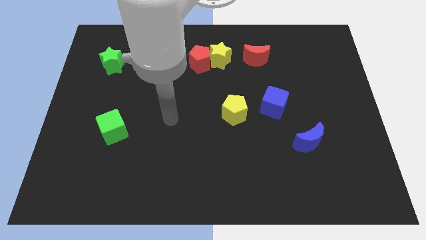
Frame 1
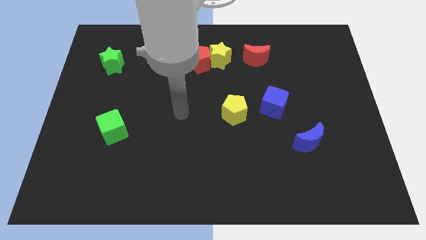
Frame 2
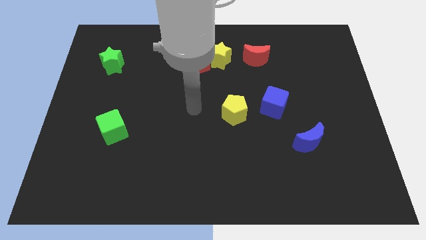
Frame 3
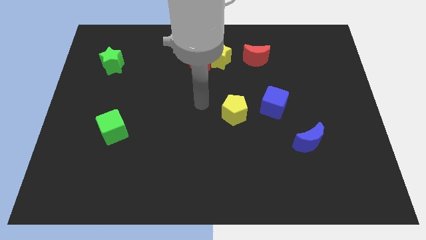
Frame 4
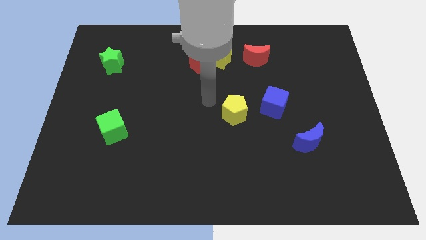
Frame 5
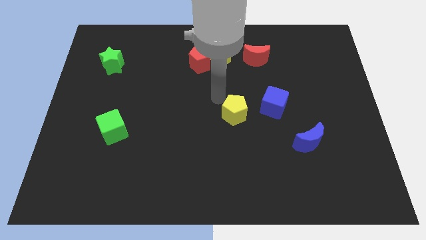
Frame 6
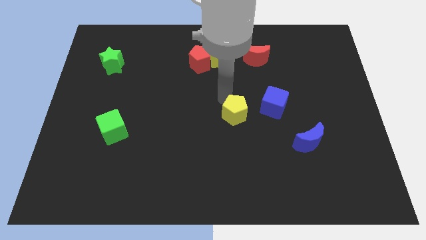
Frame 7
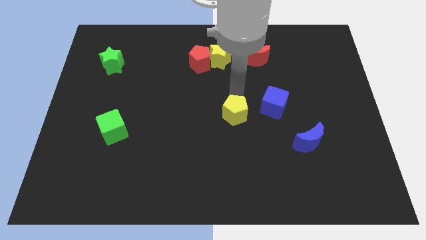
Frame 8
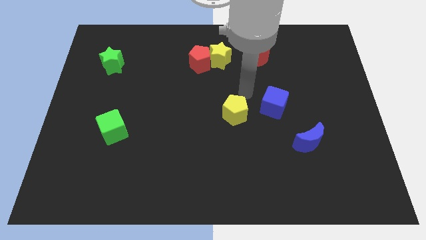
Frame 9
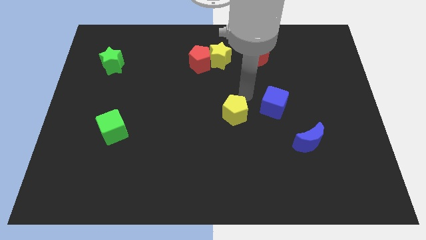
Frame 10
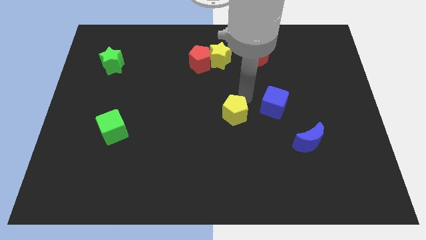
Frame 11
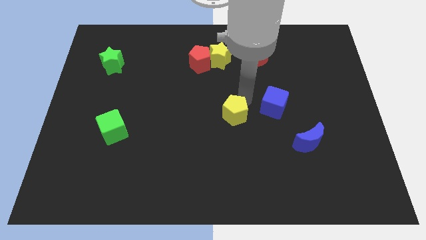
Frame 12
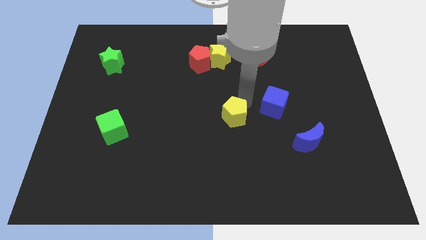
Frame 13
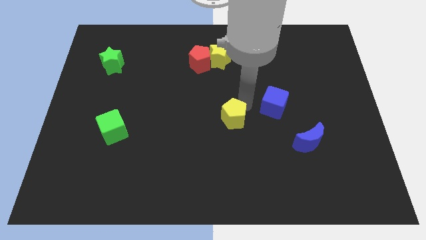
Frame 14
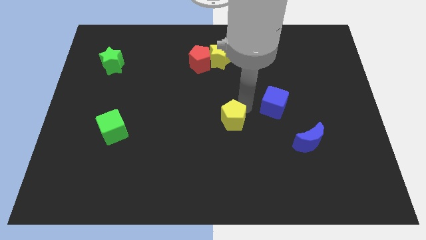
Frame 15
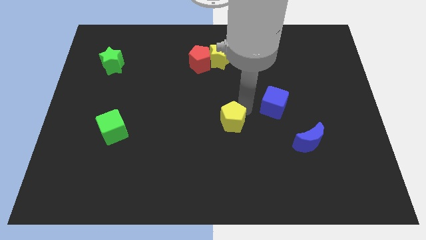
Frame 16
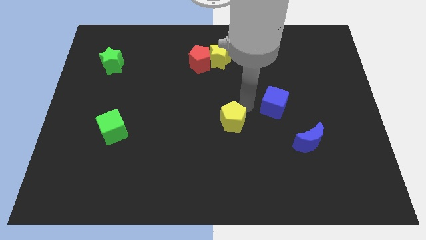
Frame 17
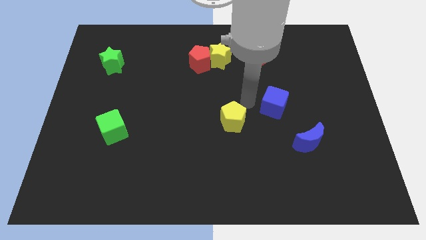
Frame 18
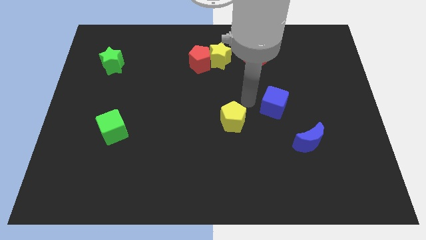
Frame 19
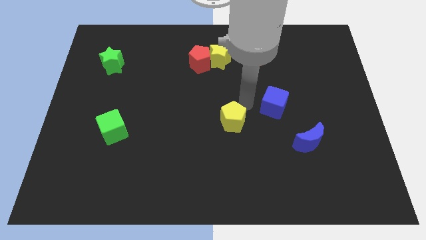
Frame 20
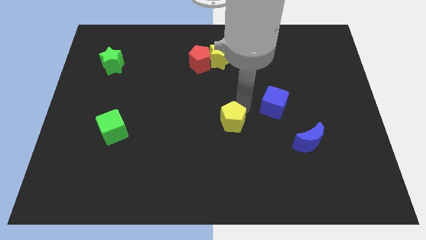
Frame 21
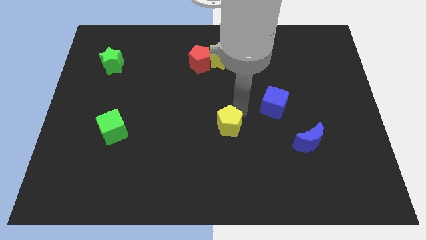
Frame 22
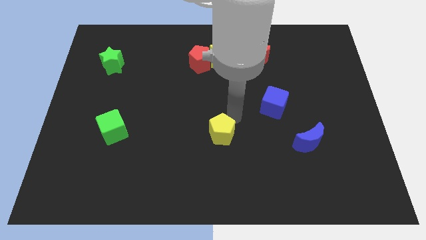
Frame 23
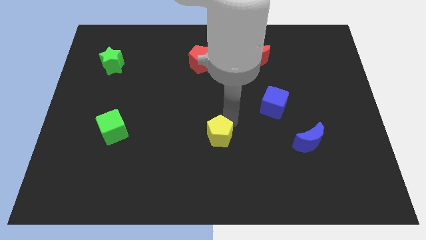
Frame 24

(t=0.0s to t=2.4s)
slightly move the yellow pentagon down and left

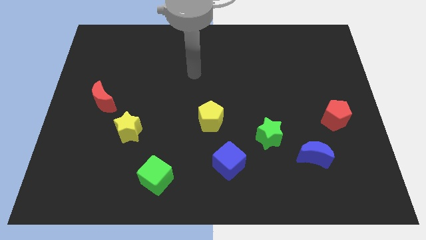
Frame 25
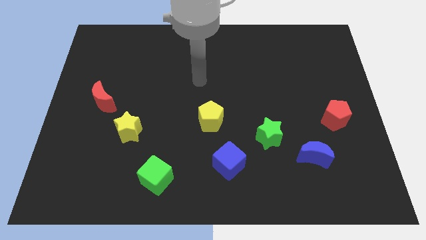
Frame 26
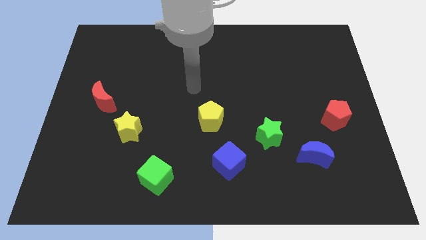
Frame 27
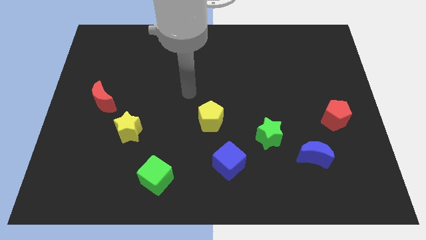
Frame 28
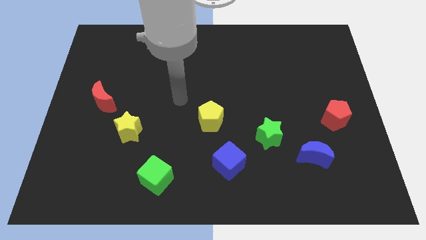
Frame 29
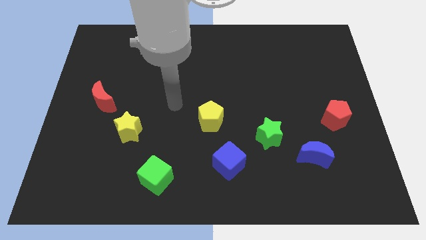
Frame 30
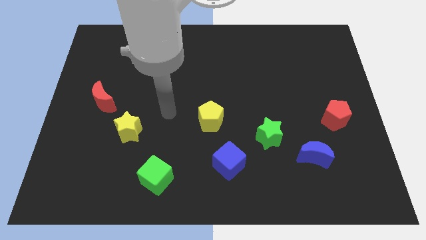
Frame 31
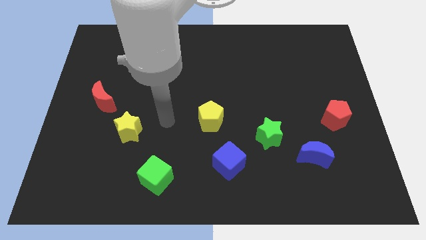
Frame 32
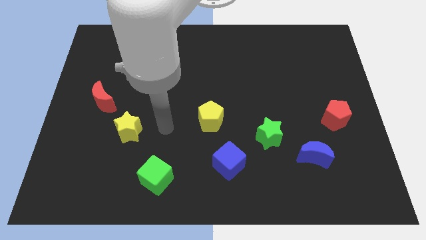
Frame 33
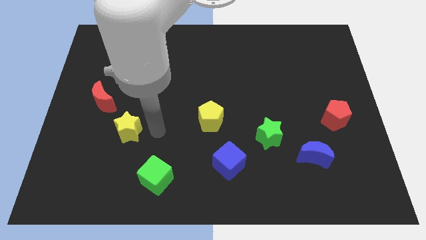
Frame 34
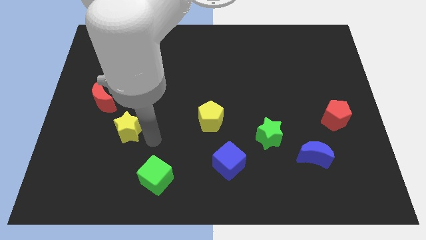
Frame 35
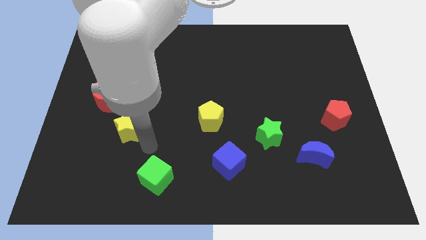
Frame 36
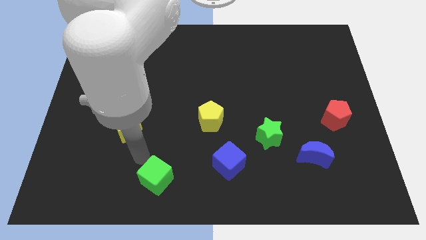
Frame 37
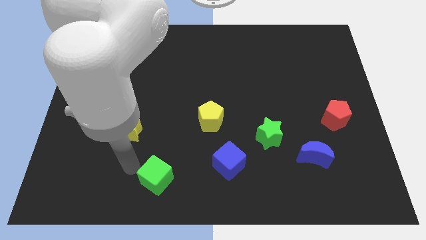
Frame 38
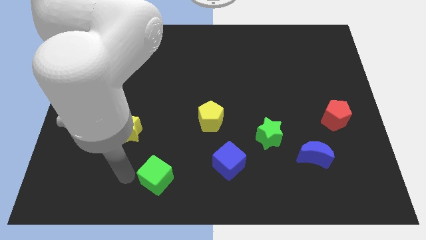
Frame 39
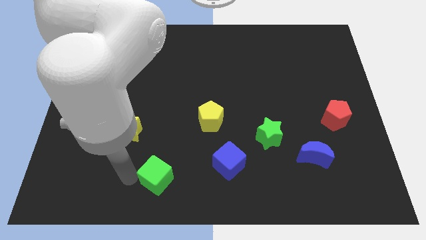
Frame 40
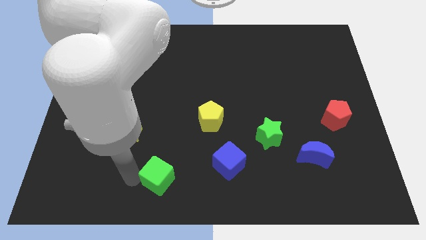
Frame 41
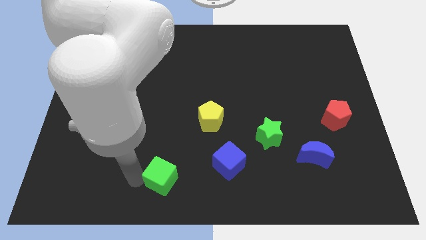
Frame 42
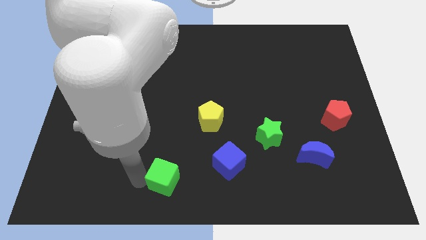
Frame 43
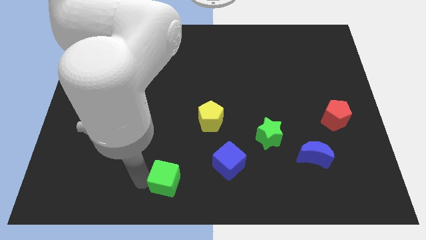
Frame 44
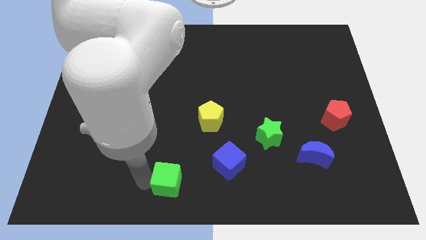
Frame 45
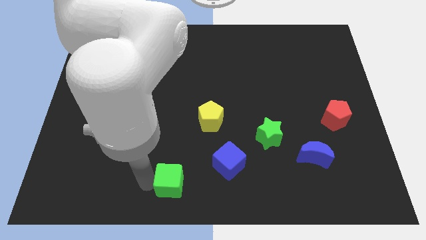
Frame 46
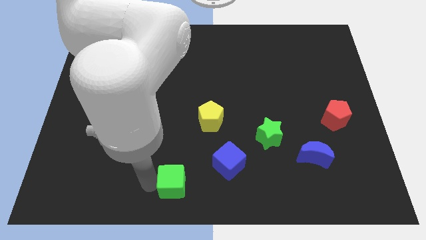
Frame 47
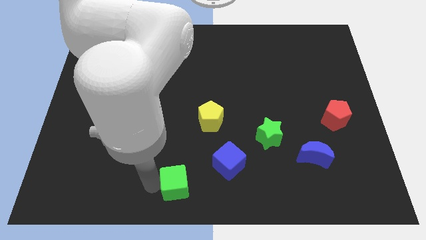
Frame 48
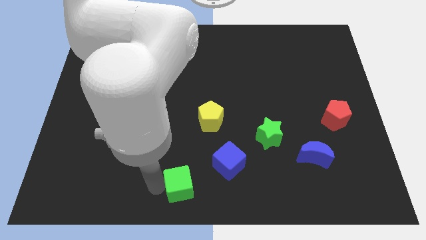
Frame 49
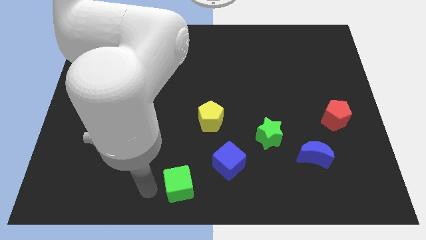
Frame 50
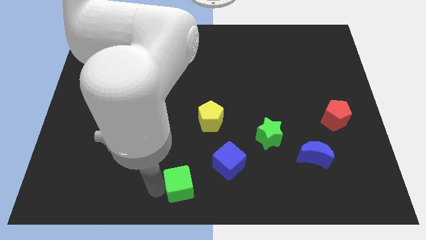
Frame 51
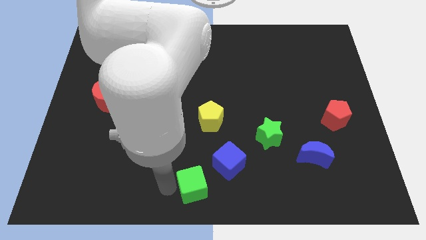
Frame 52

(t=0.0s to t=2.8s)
push the green cube slightly to the right

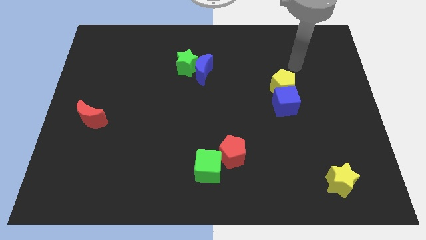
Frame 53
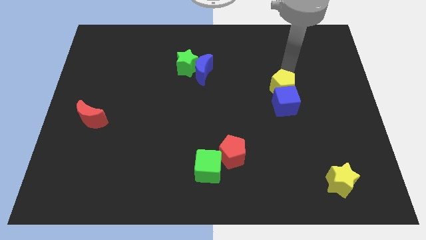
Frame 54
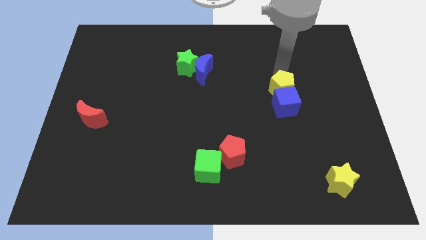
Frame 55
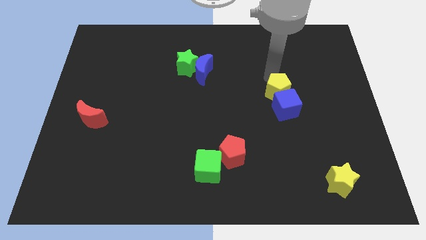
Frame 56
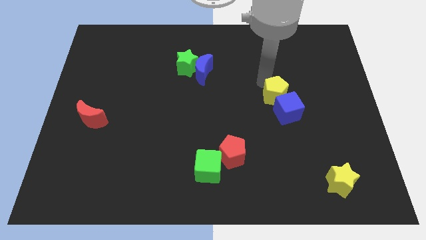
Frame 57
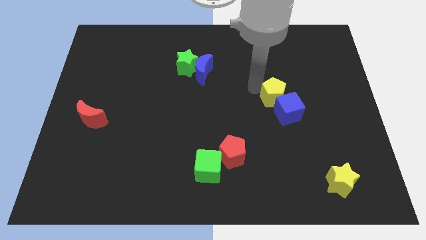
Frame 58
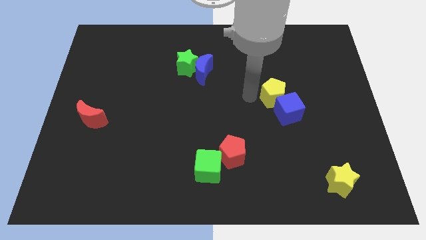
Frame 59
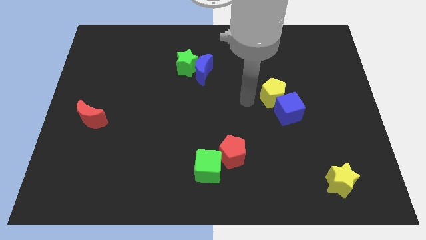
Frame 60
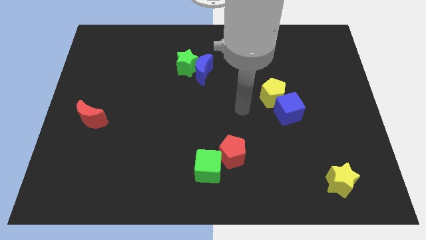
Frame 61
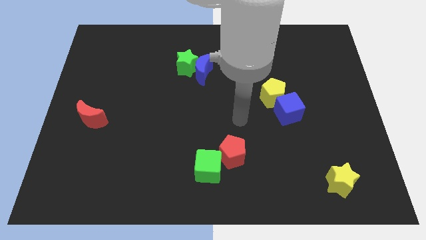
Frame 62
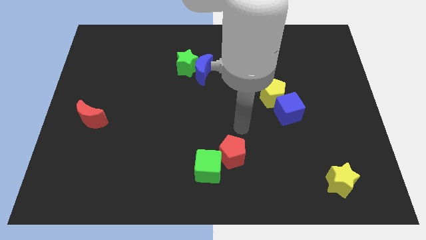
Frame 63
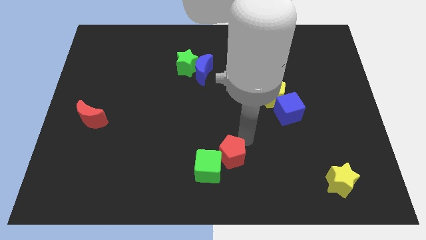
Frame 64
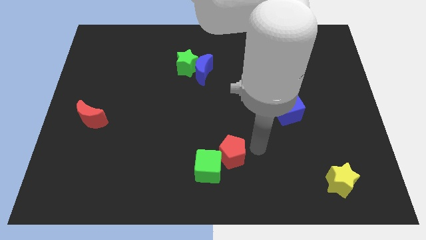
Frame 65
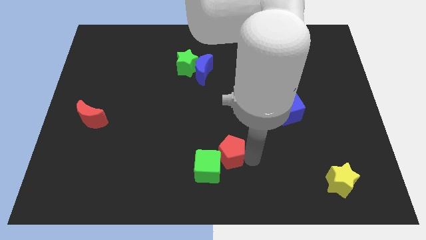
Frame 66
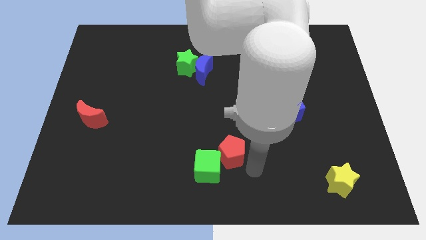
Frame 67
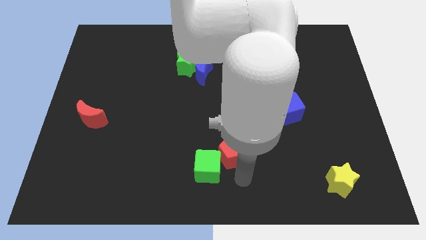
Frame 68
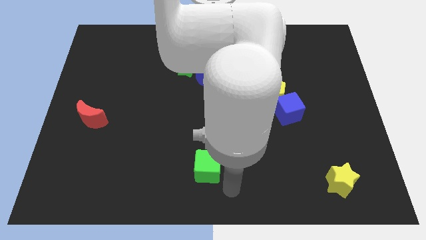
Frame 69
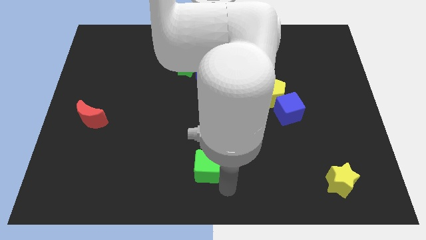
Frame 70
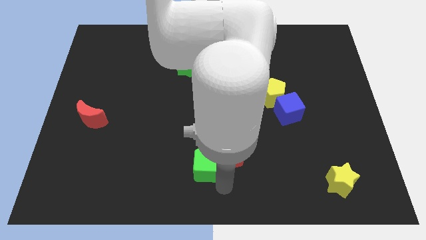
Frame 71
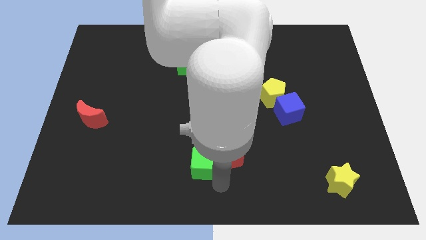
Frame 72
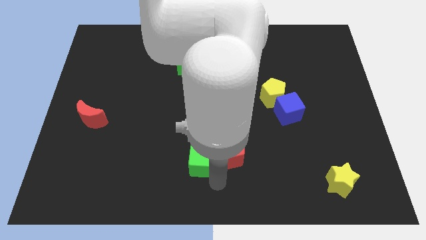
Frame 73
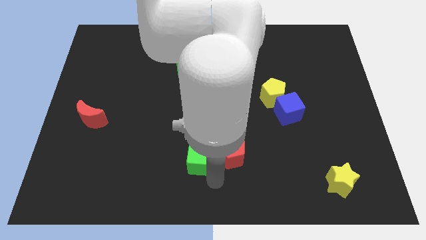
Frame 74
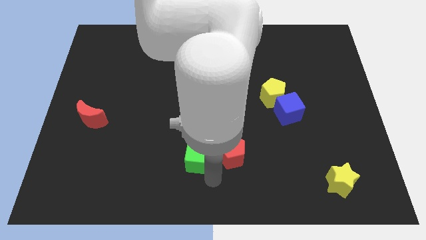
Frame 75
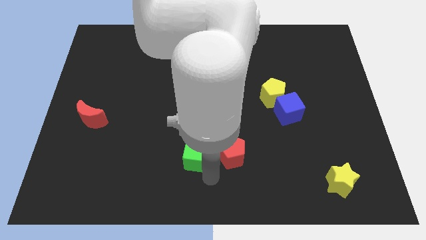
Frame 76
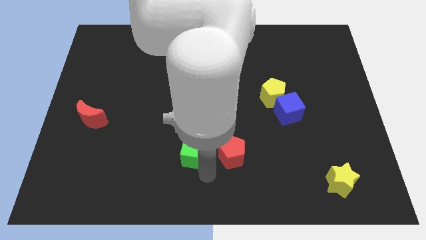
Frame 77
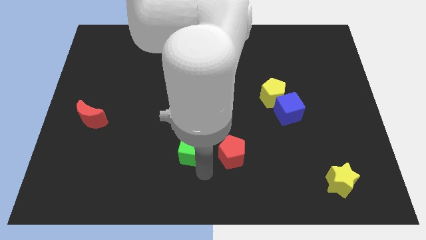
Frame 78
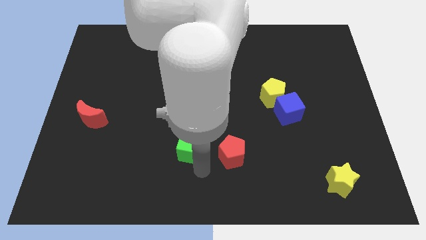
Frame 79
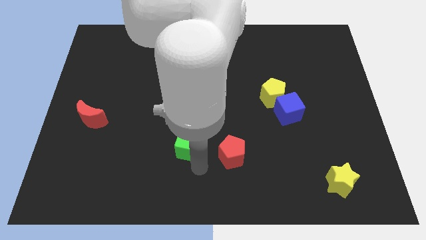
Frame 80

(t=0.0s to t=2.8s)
move the green cube somewhat upwards and left diagonally
